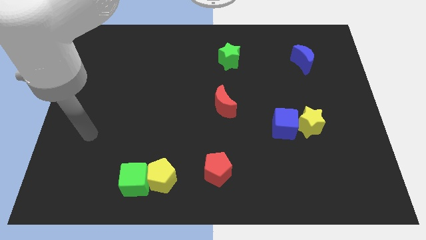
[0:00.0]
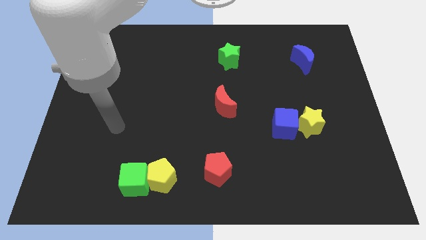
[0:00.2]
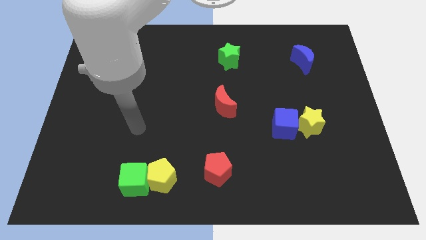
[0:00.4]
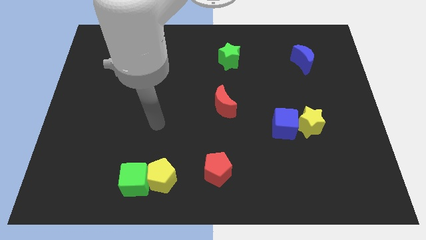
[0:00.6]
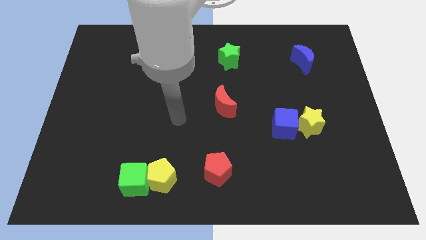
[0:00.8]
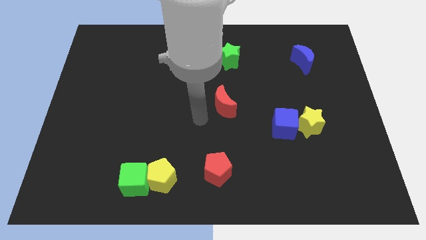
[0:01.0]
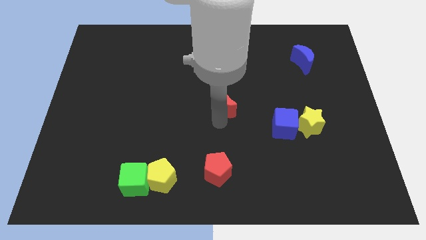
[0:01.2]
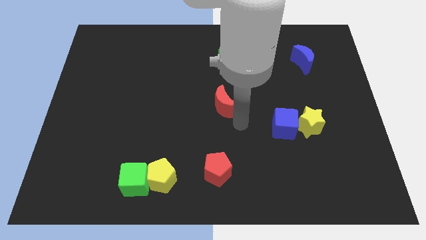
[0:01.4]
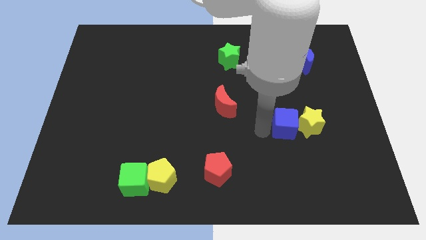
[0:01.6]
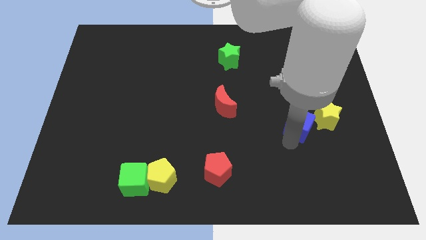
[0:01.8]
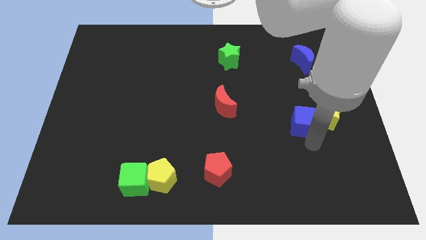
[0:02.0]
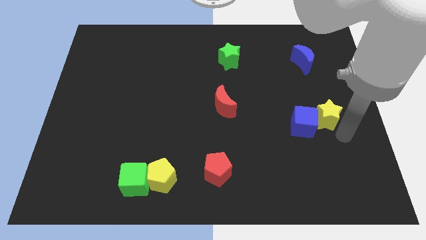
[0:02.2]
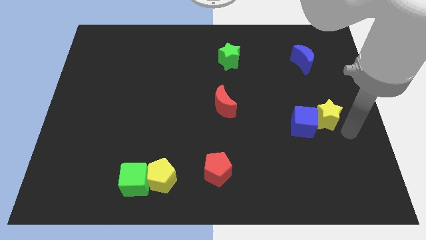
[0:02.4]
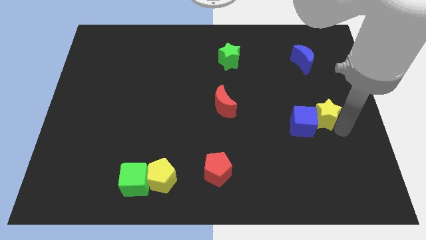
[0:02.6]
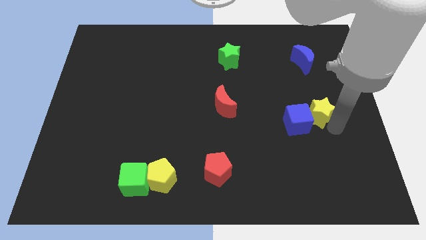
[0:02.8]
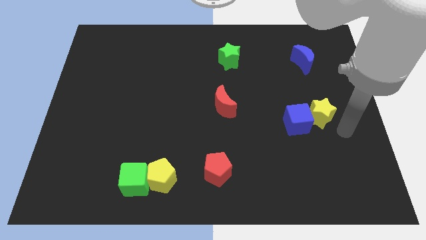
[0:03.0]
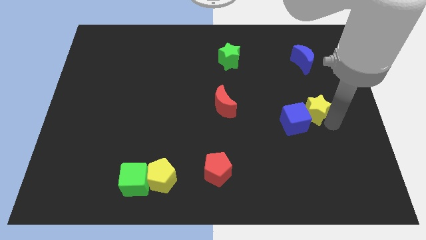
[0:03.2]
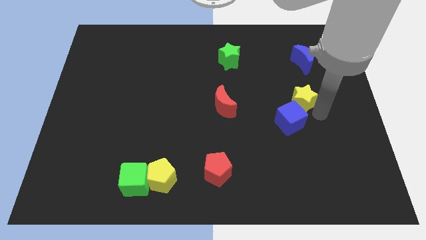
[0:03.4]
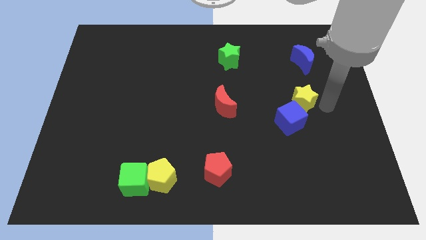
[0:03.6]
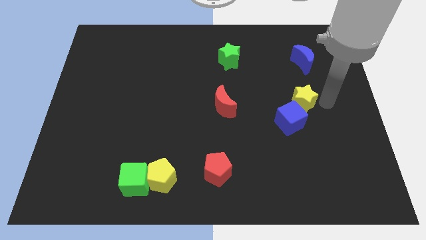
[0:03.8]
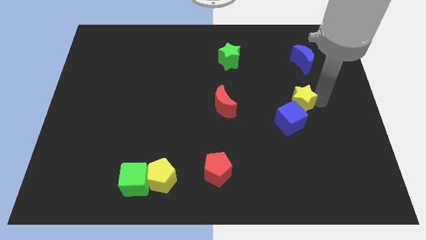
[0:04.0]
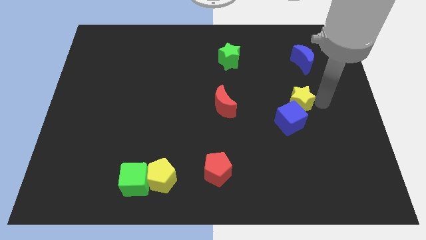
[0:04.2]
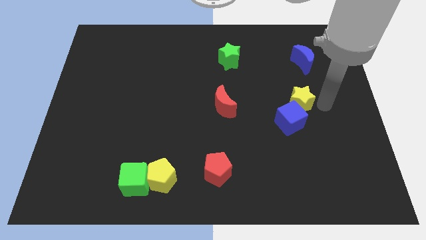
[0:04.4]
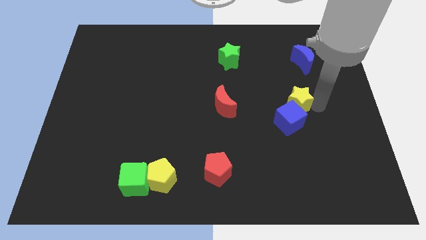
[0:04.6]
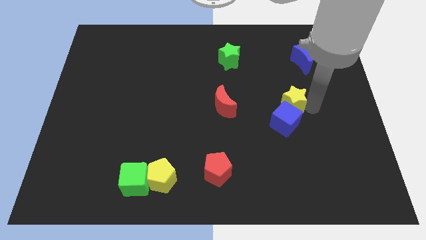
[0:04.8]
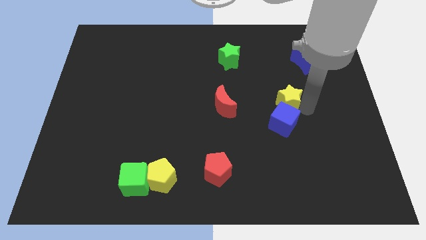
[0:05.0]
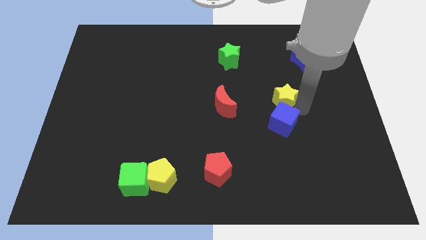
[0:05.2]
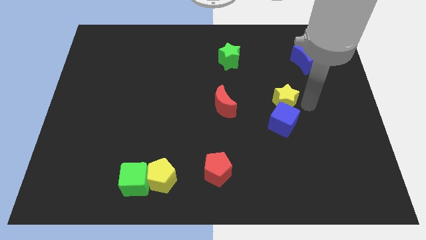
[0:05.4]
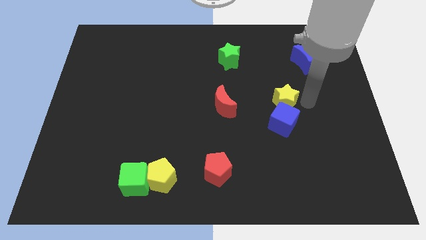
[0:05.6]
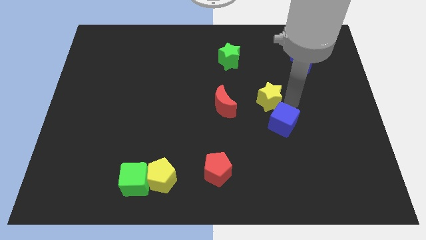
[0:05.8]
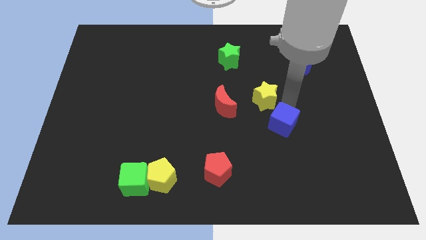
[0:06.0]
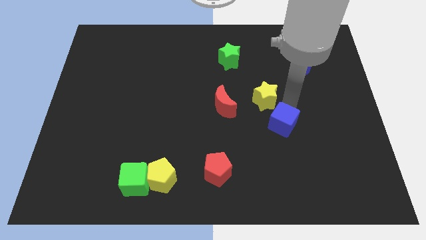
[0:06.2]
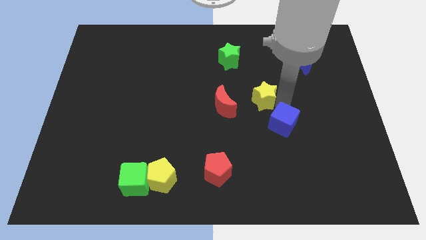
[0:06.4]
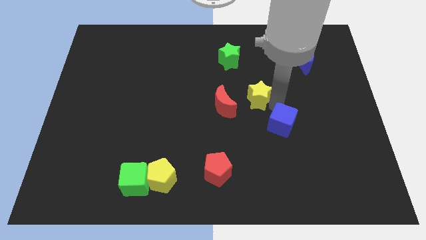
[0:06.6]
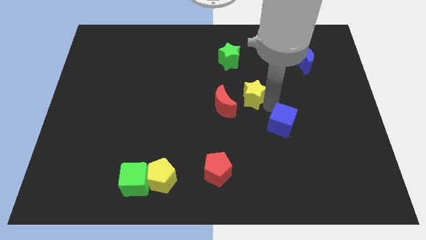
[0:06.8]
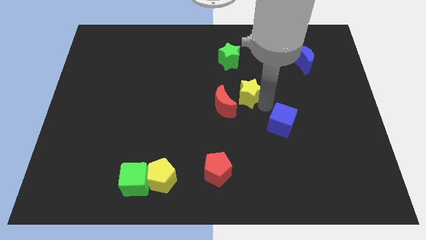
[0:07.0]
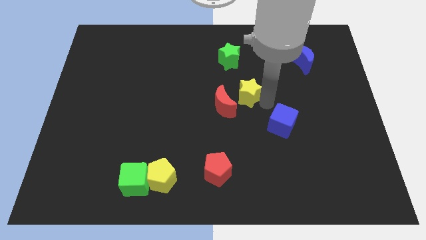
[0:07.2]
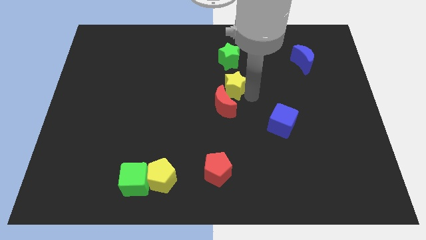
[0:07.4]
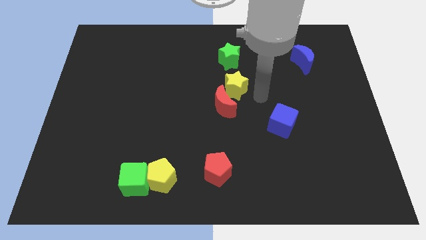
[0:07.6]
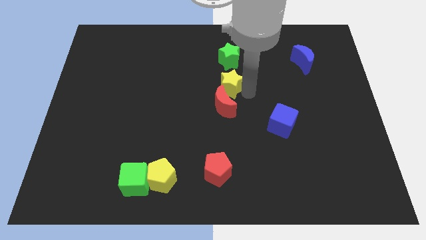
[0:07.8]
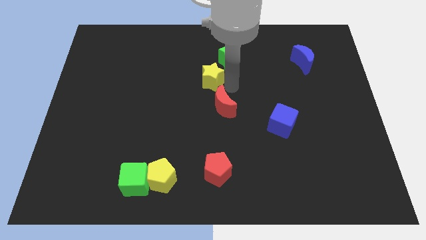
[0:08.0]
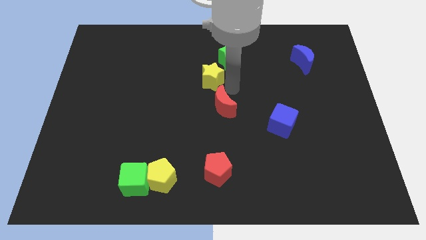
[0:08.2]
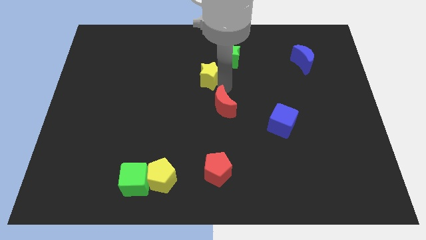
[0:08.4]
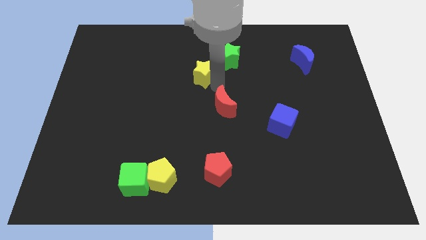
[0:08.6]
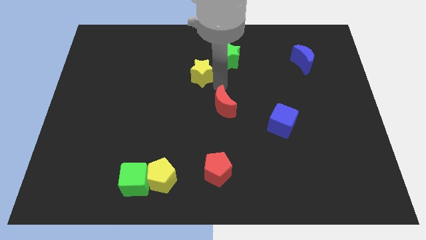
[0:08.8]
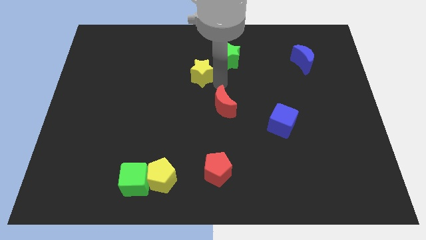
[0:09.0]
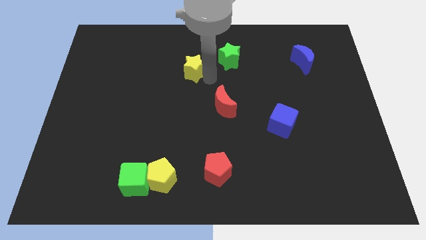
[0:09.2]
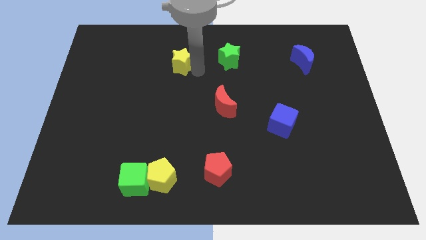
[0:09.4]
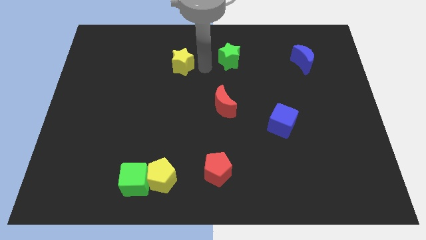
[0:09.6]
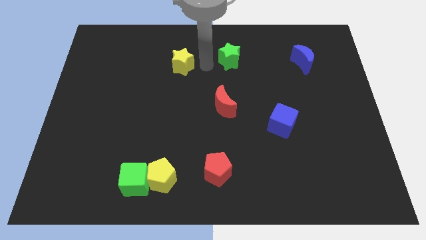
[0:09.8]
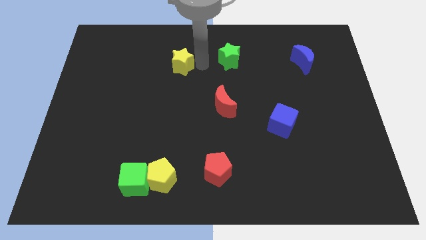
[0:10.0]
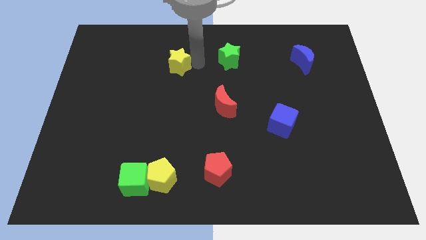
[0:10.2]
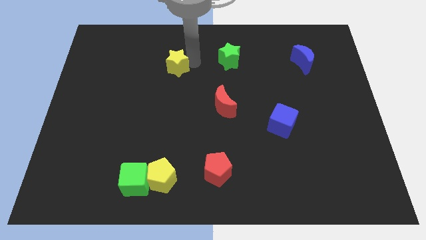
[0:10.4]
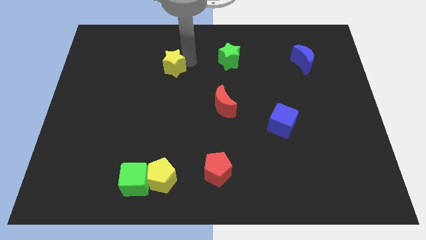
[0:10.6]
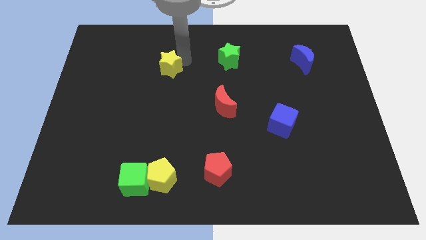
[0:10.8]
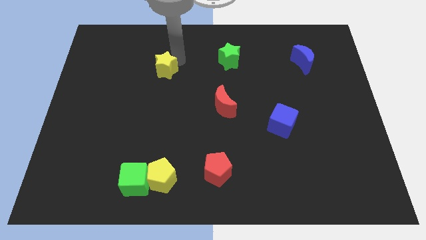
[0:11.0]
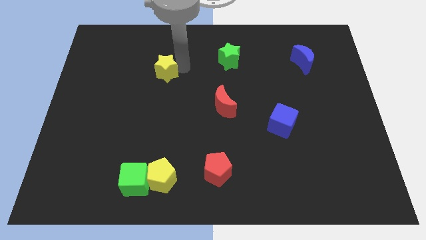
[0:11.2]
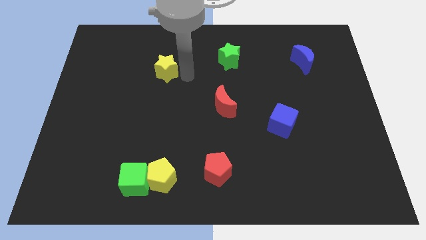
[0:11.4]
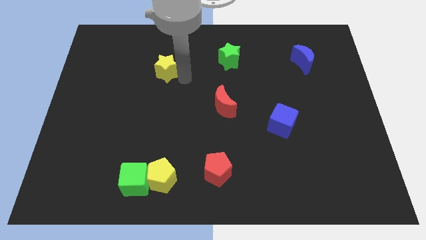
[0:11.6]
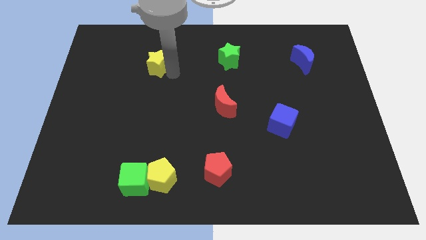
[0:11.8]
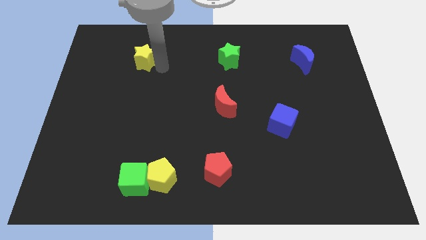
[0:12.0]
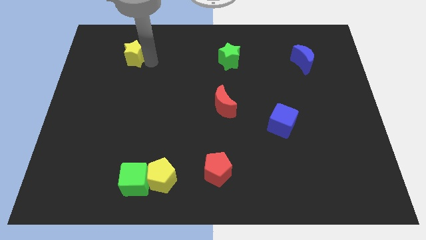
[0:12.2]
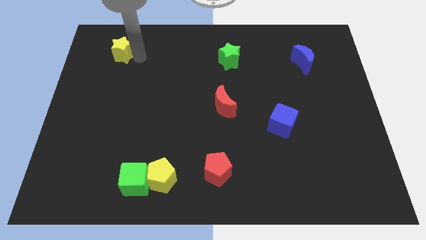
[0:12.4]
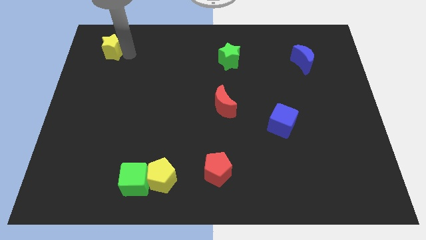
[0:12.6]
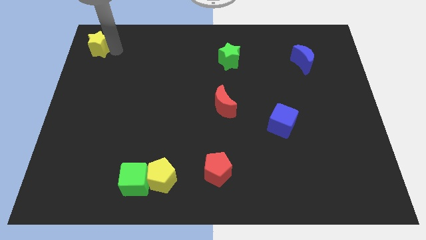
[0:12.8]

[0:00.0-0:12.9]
slide the yellow star to the top left corner
